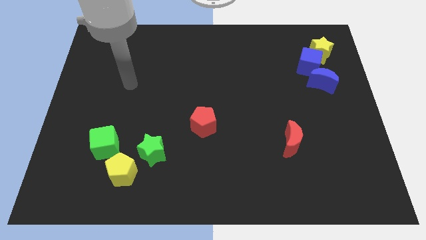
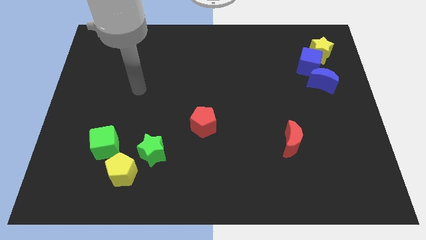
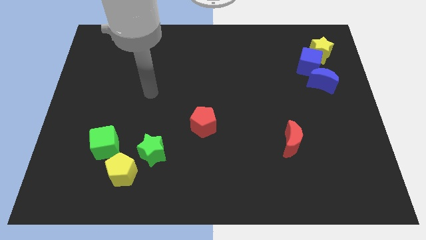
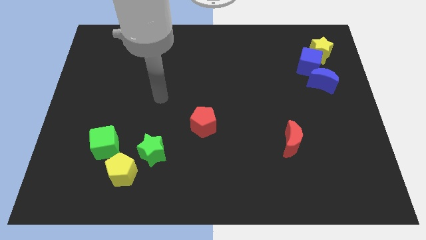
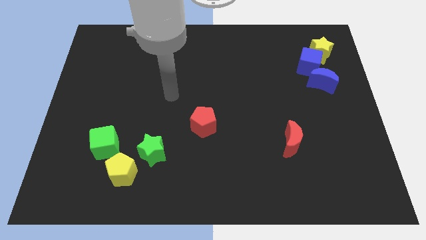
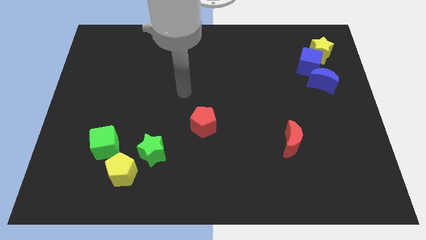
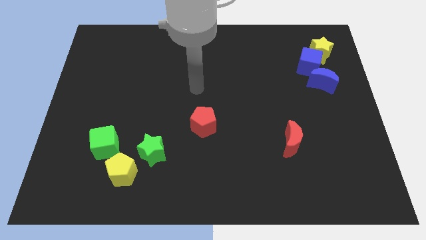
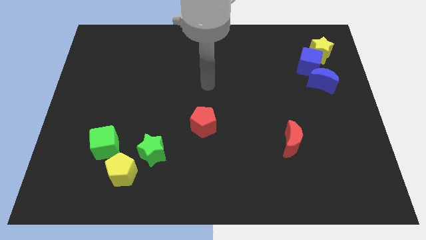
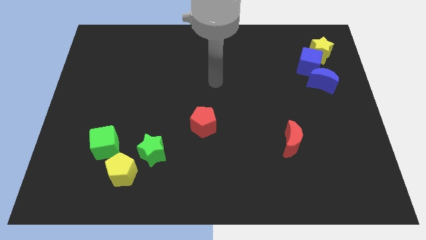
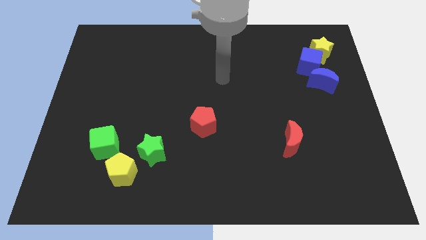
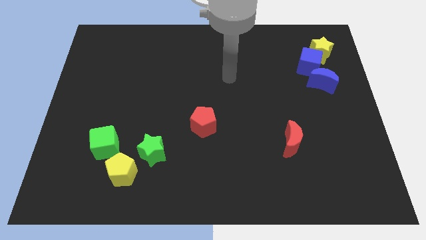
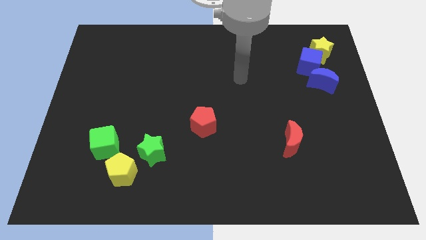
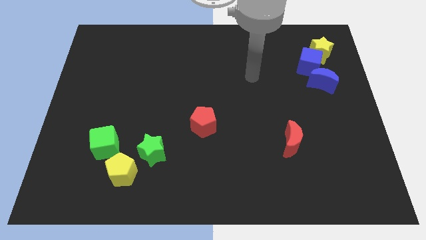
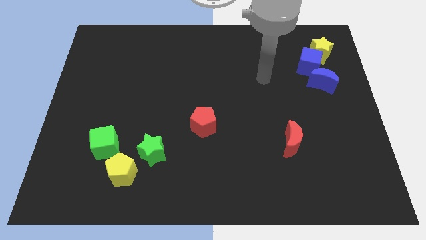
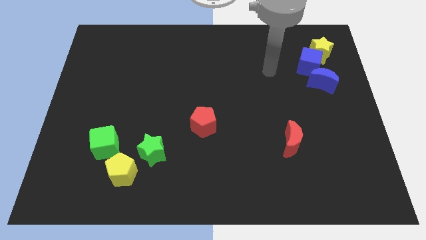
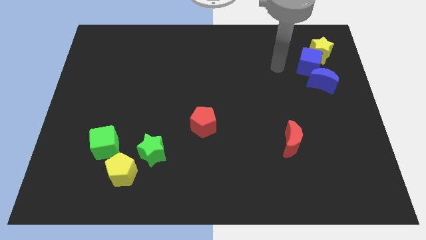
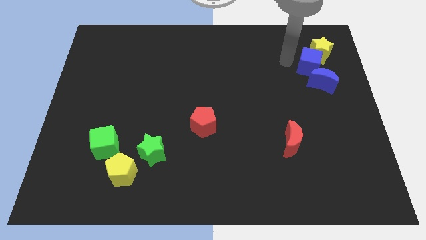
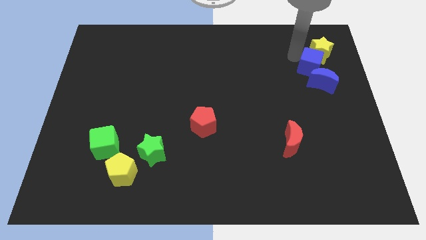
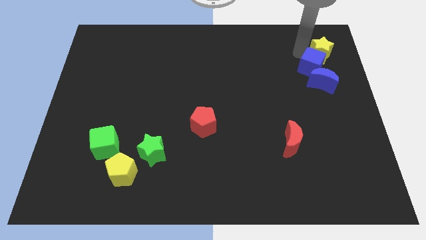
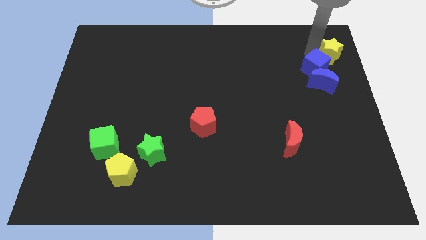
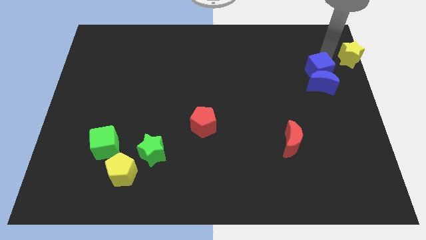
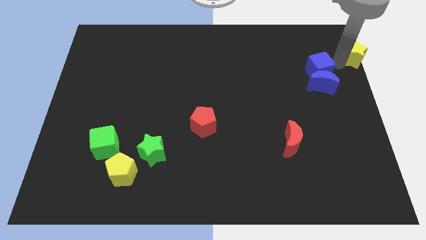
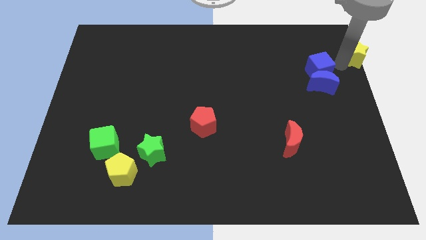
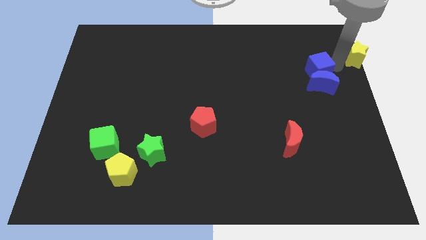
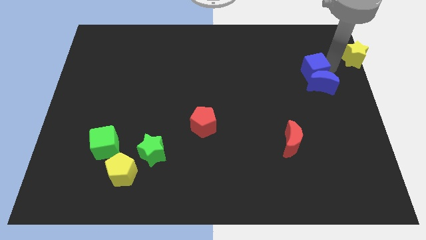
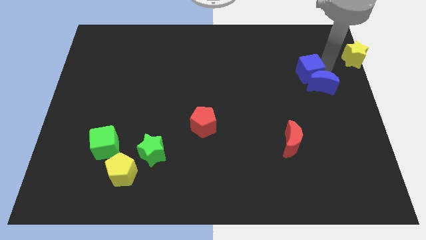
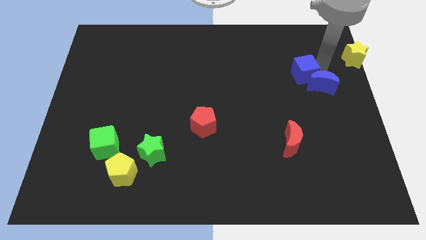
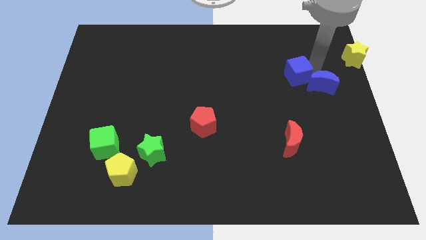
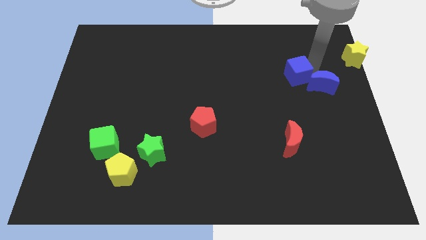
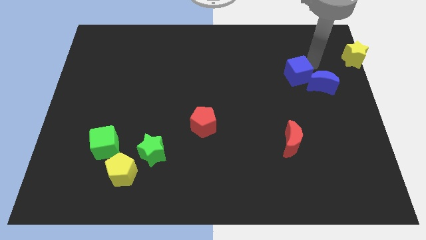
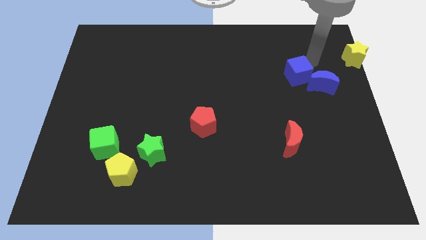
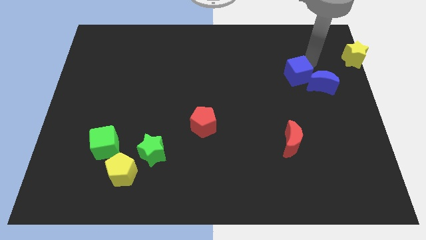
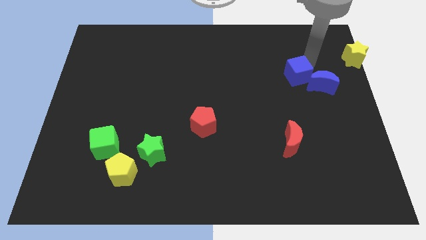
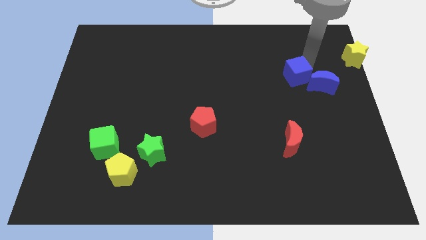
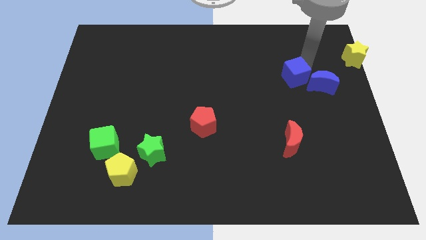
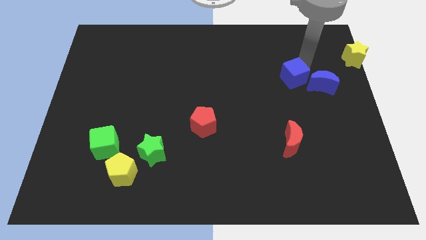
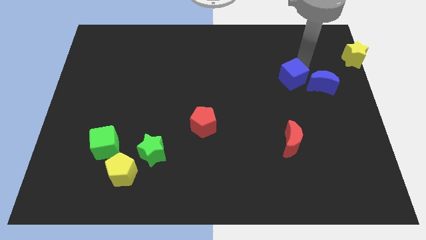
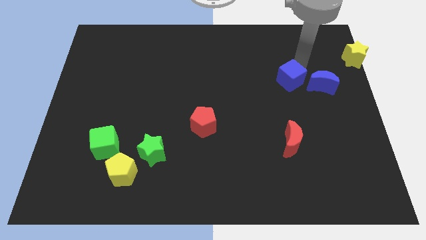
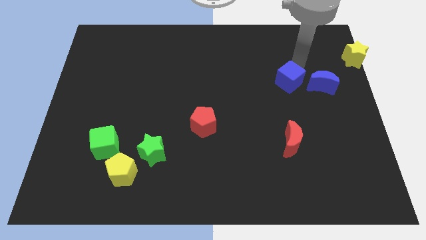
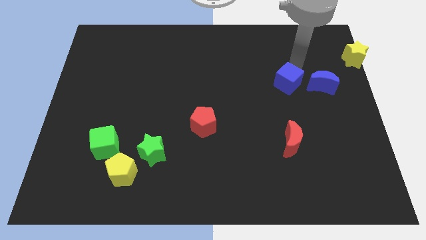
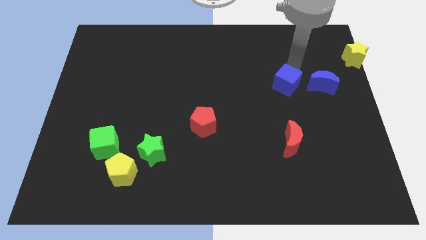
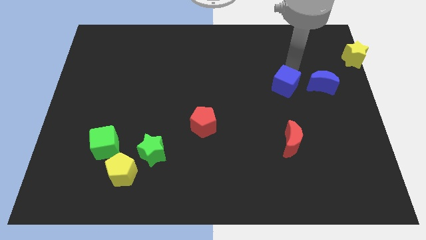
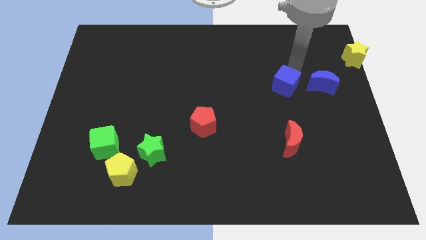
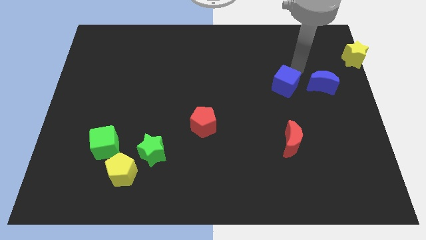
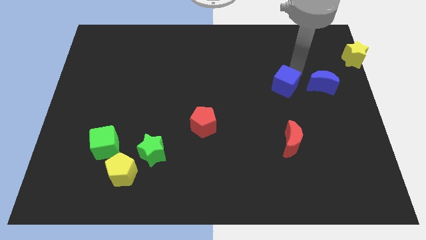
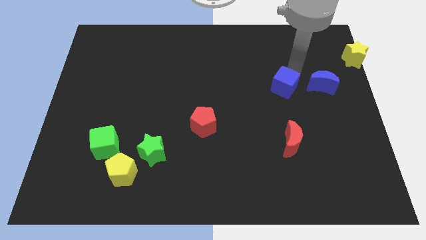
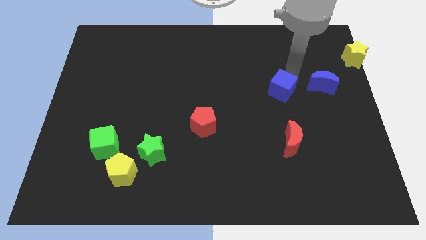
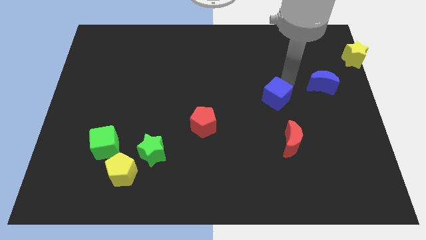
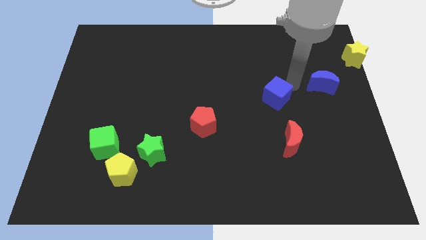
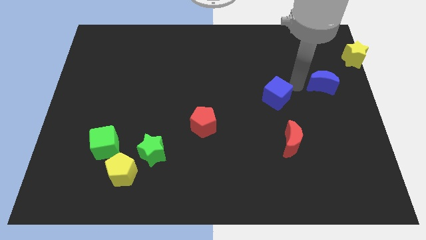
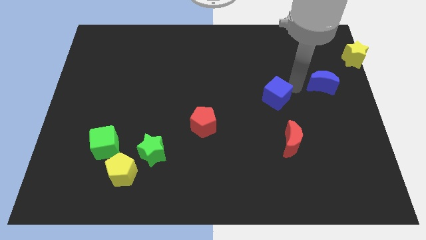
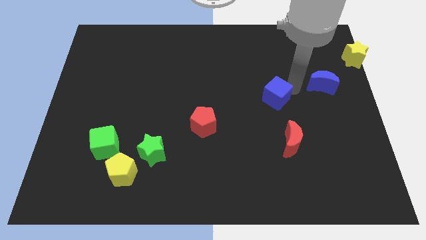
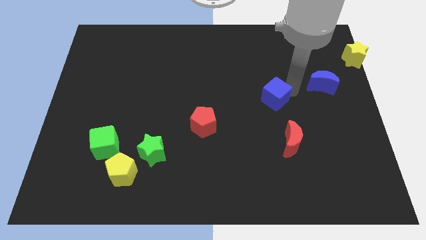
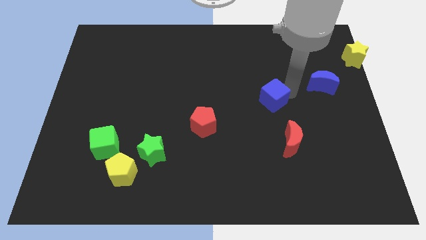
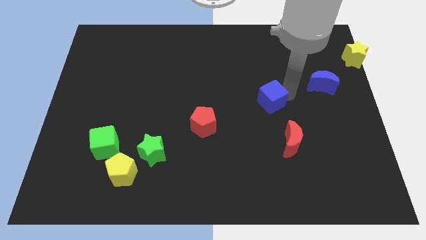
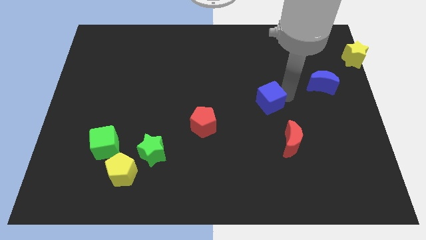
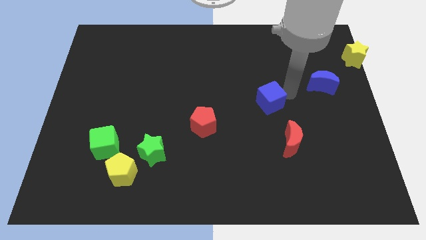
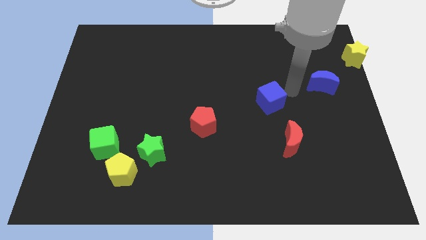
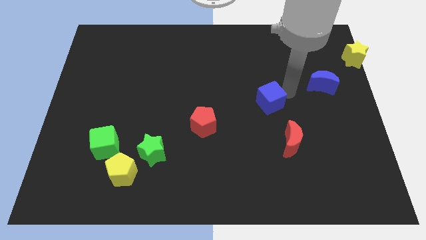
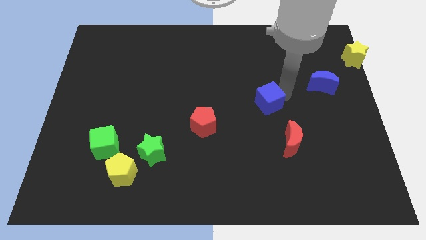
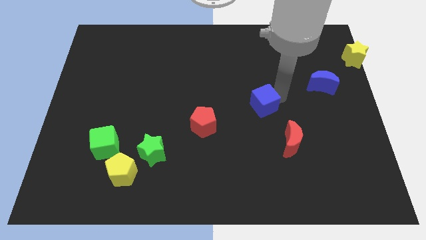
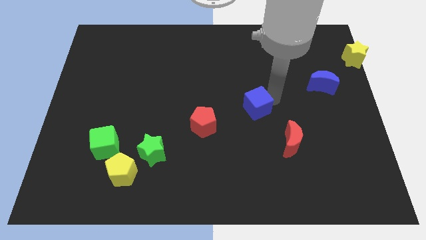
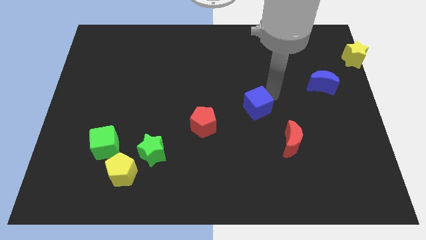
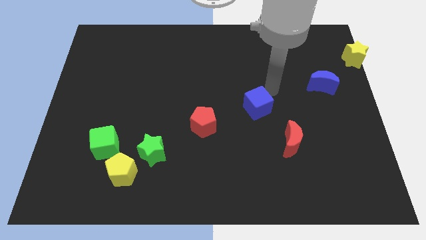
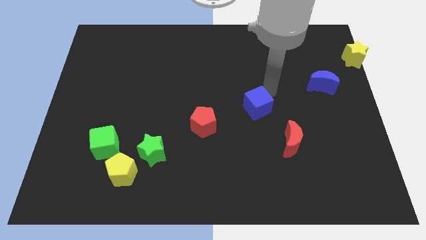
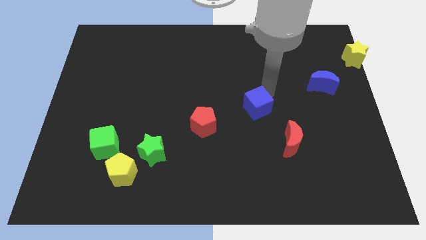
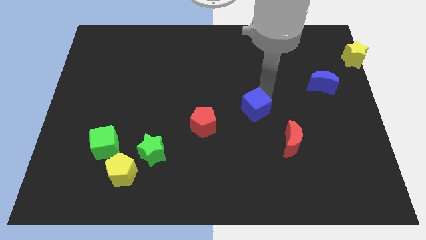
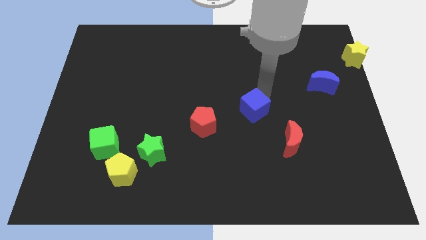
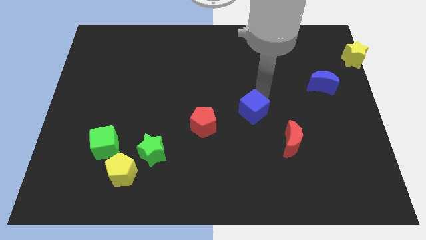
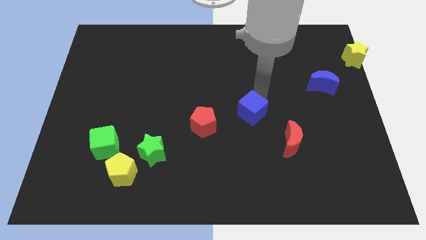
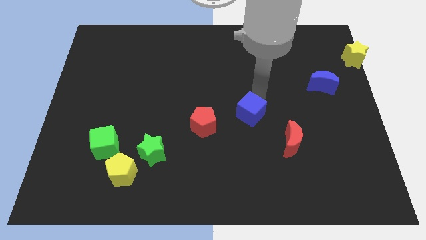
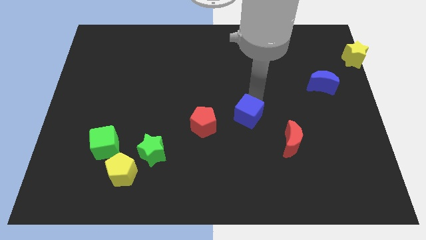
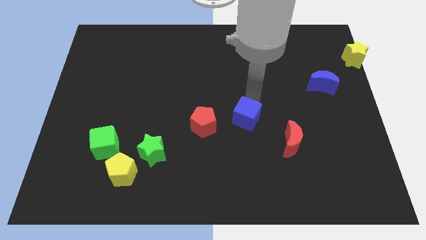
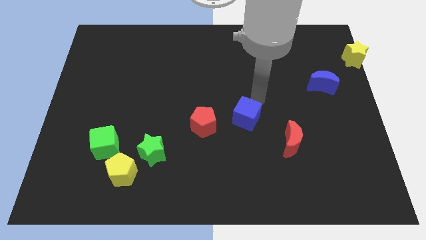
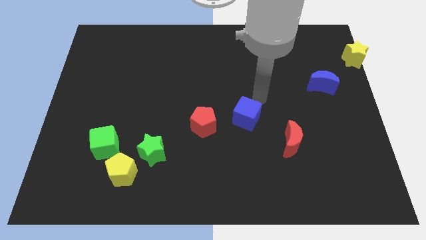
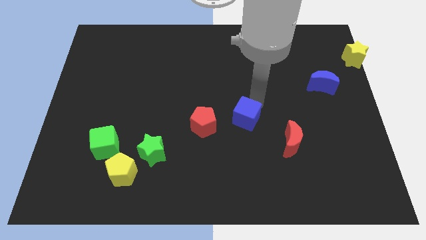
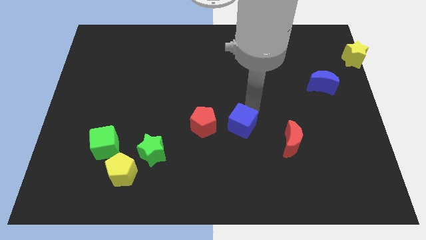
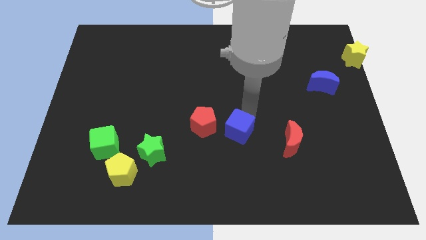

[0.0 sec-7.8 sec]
push the blue cube diagonally down and to the right of the red pentagon

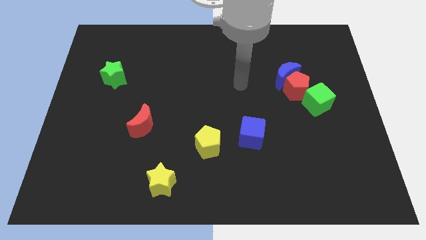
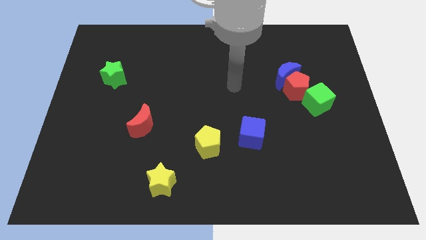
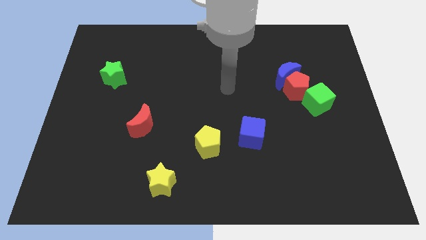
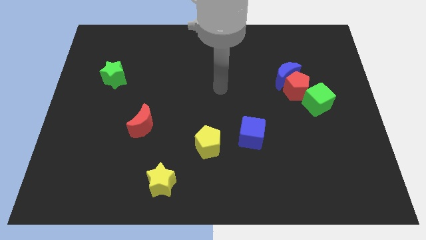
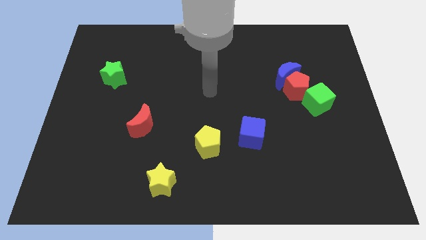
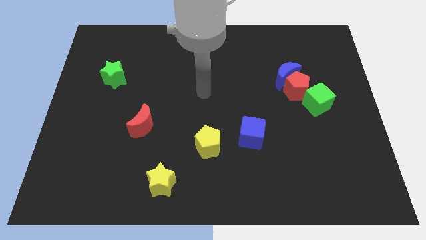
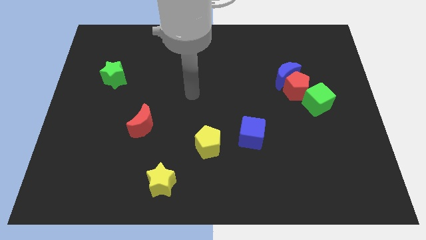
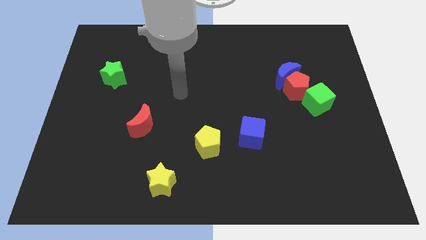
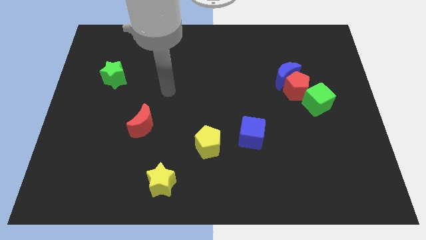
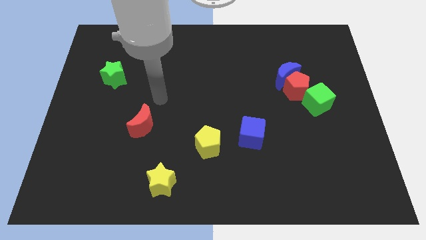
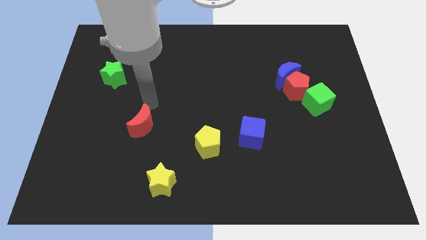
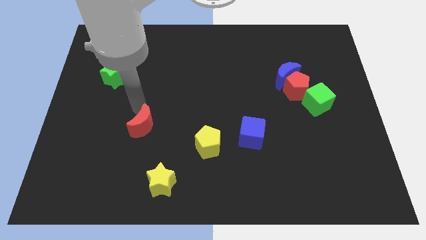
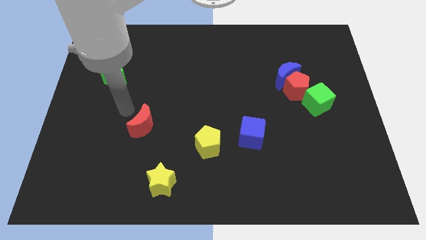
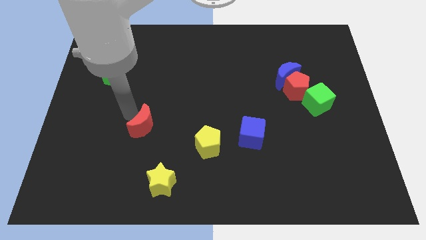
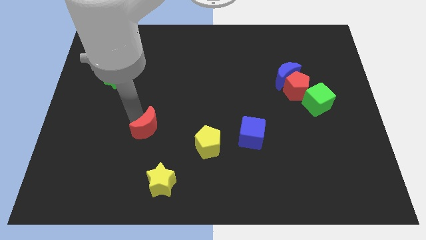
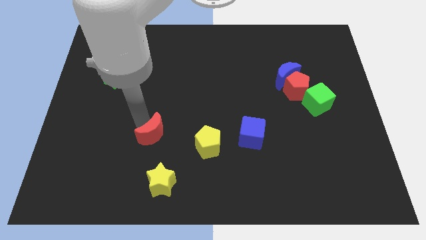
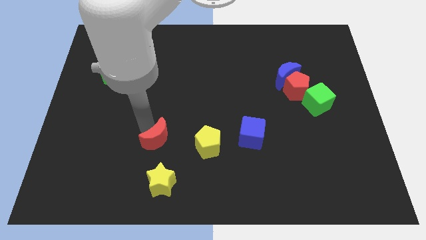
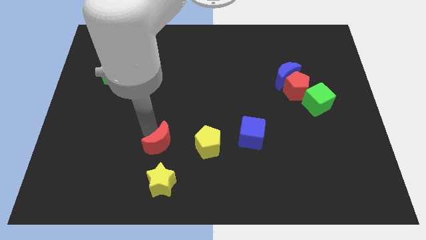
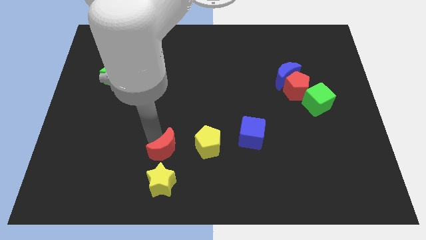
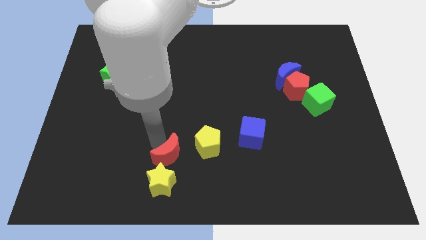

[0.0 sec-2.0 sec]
slide the red moon to the top right of the yellow star
